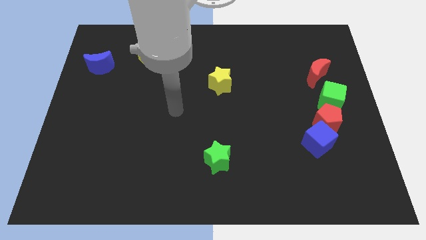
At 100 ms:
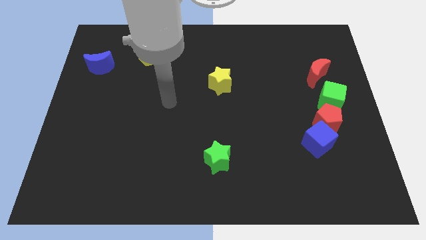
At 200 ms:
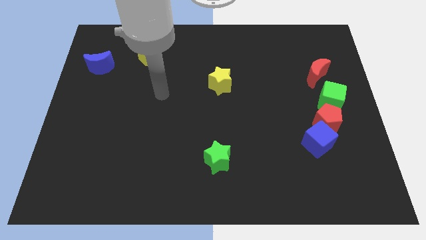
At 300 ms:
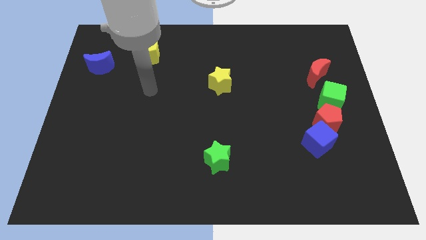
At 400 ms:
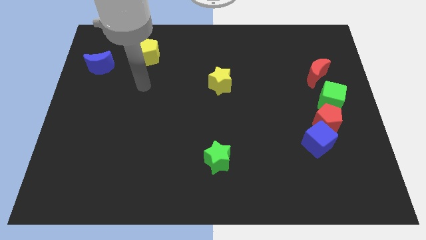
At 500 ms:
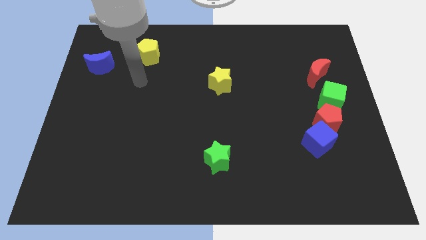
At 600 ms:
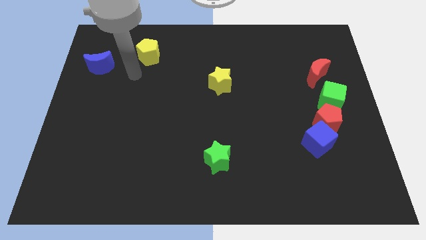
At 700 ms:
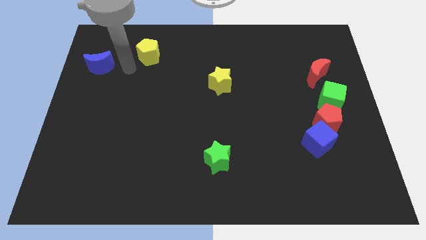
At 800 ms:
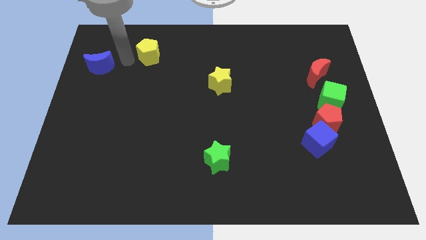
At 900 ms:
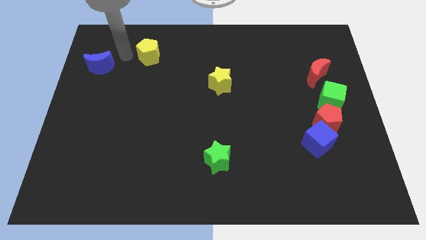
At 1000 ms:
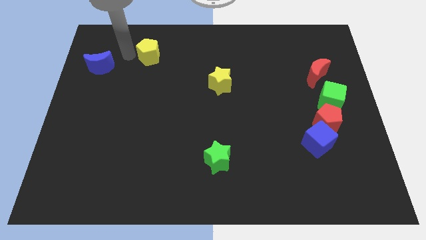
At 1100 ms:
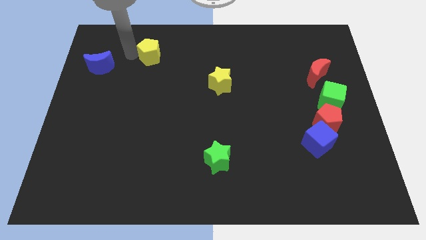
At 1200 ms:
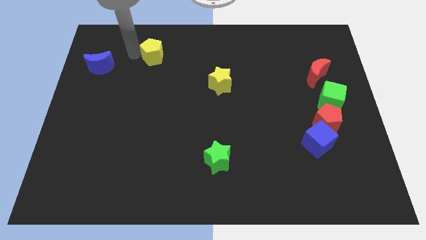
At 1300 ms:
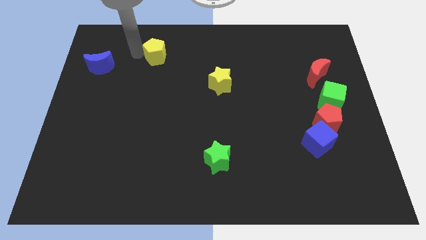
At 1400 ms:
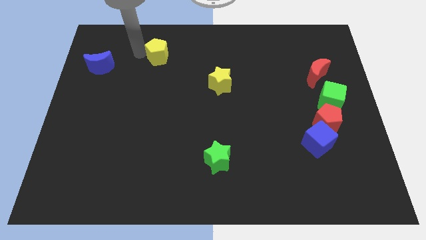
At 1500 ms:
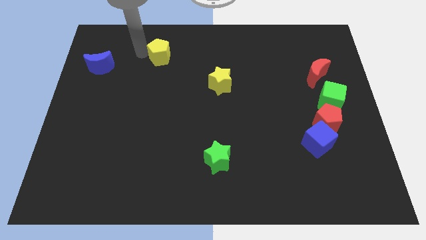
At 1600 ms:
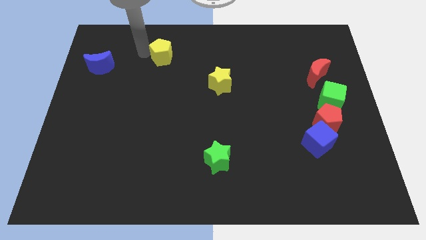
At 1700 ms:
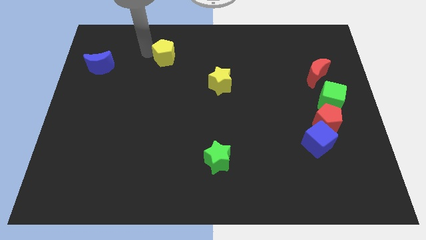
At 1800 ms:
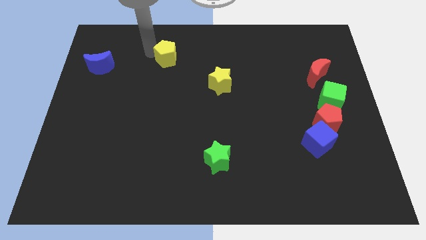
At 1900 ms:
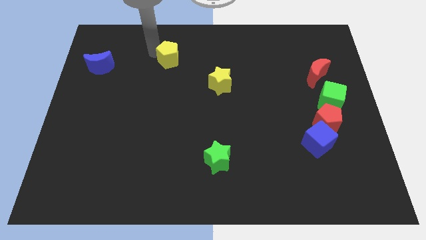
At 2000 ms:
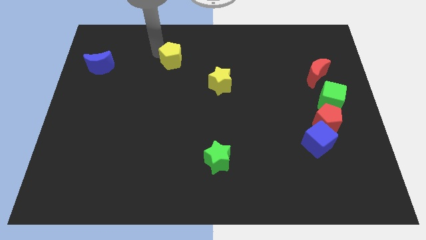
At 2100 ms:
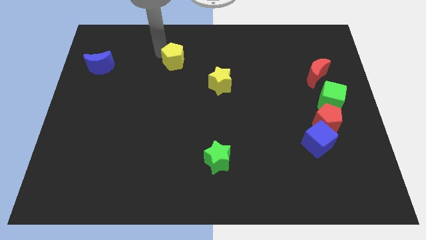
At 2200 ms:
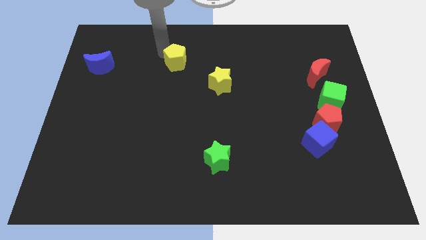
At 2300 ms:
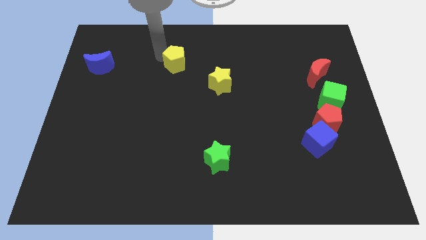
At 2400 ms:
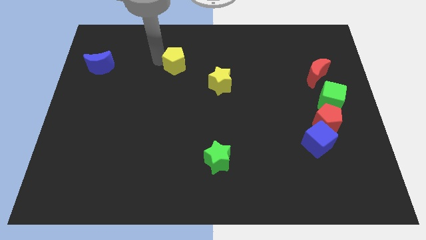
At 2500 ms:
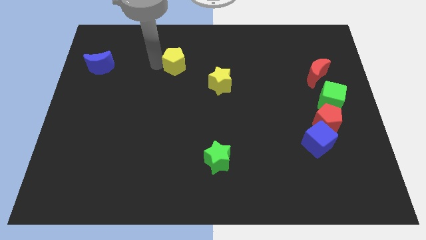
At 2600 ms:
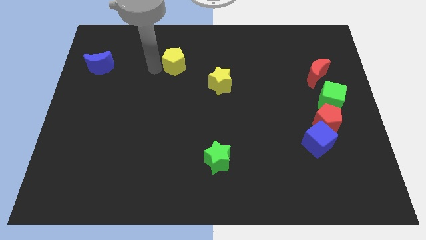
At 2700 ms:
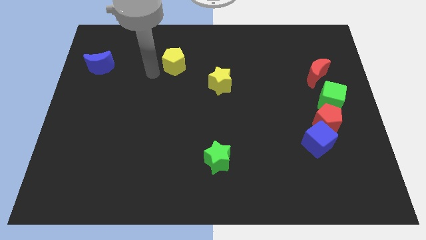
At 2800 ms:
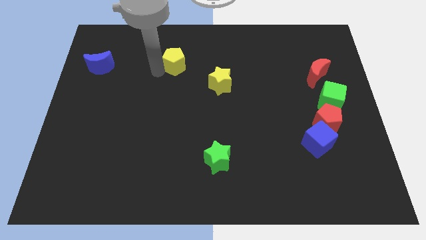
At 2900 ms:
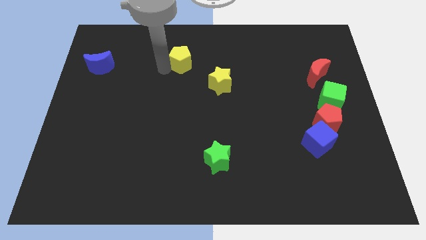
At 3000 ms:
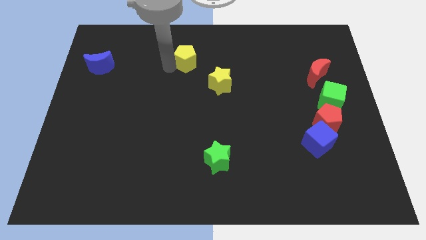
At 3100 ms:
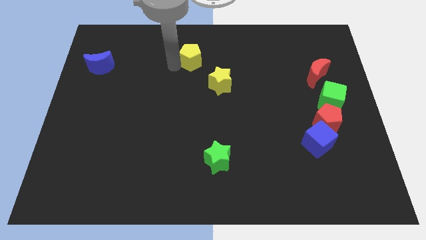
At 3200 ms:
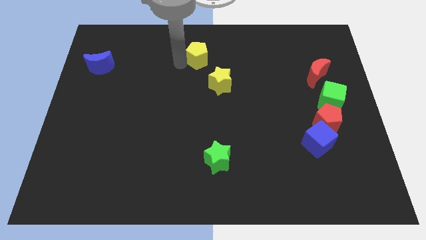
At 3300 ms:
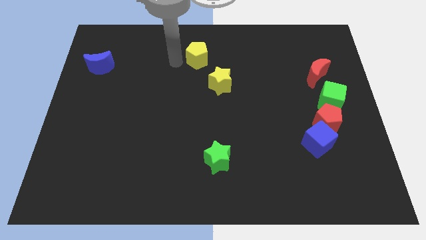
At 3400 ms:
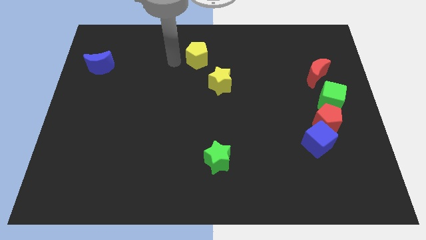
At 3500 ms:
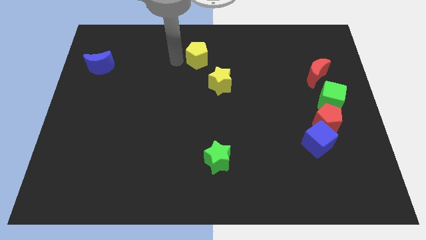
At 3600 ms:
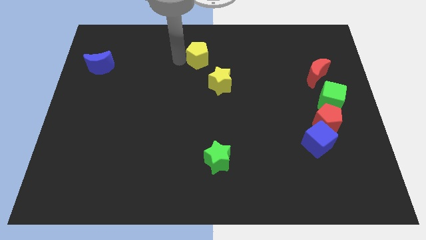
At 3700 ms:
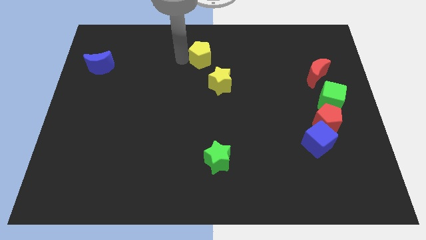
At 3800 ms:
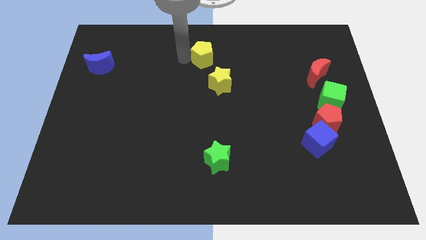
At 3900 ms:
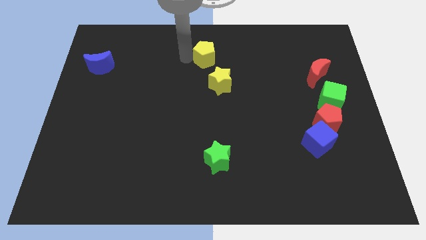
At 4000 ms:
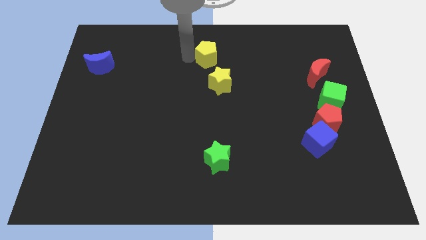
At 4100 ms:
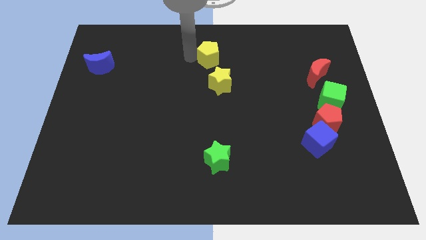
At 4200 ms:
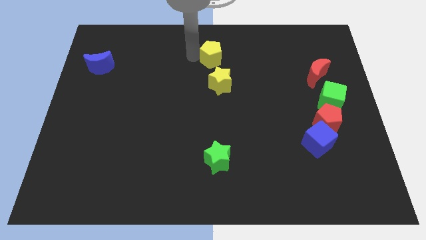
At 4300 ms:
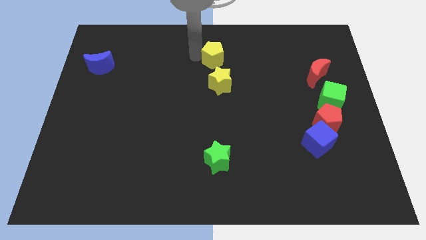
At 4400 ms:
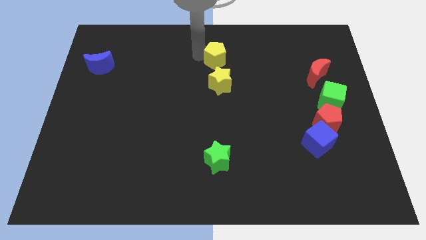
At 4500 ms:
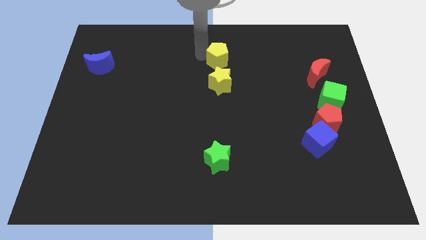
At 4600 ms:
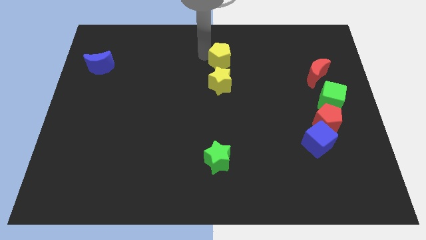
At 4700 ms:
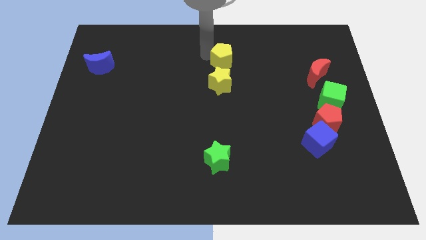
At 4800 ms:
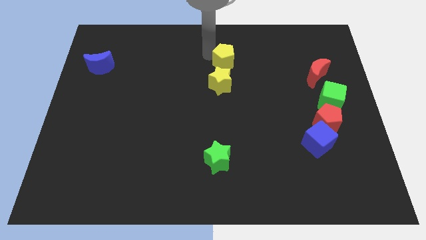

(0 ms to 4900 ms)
move the yellow pentagon to the right

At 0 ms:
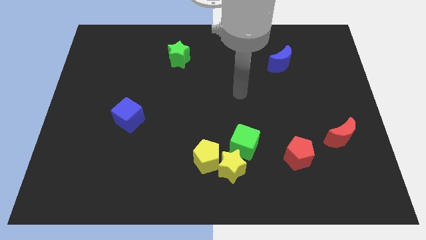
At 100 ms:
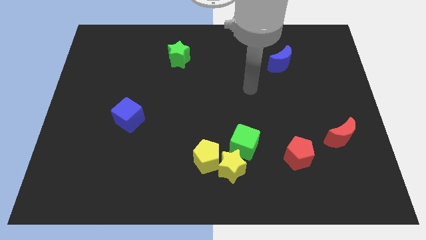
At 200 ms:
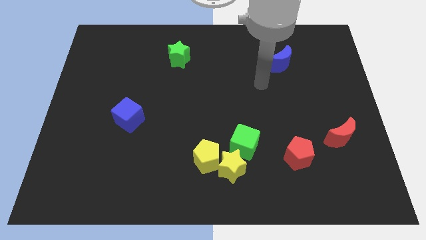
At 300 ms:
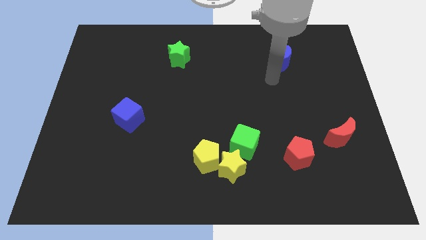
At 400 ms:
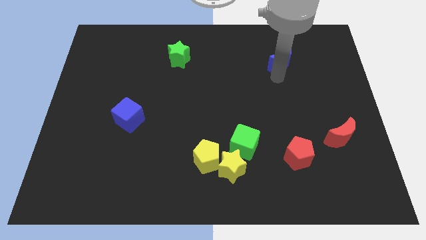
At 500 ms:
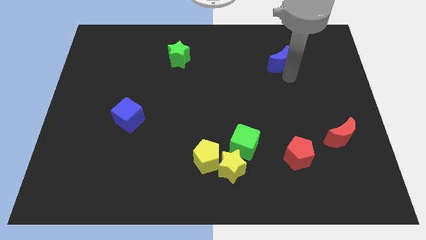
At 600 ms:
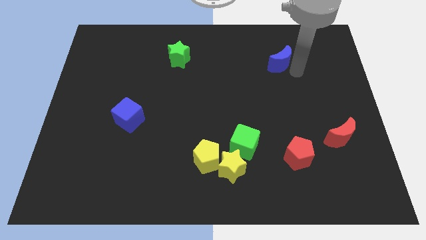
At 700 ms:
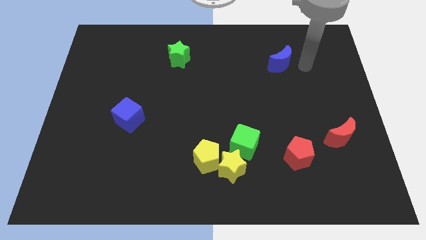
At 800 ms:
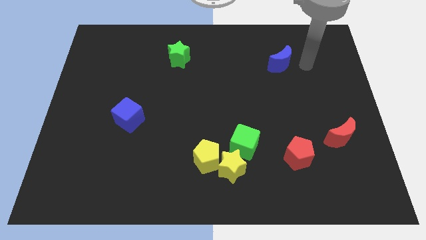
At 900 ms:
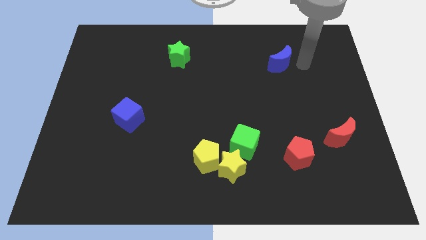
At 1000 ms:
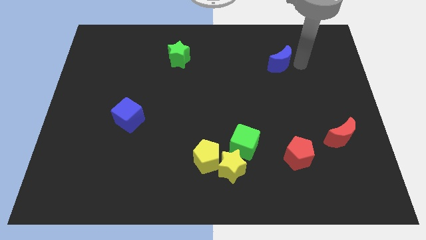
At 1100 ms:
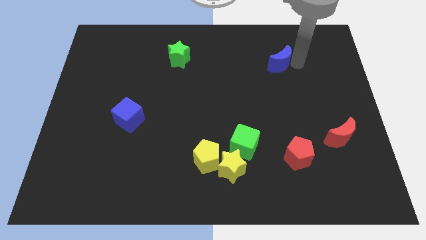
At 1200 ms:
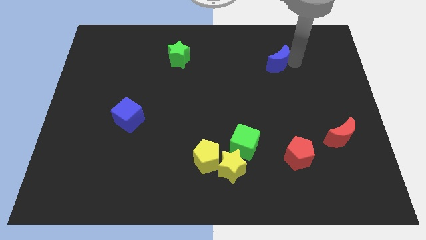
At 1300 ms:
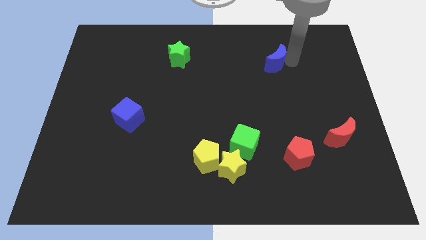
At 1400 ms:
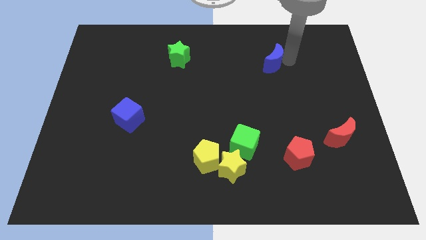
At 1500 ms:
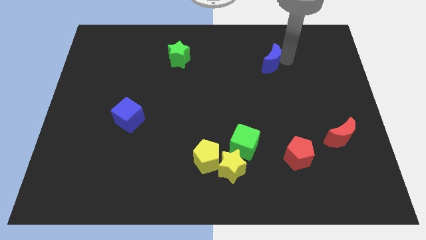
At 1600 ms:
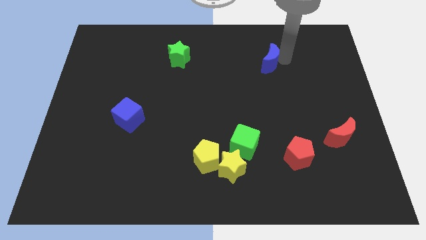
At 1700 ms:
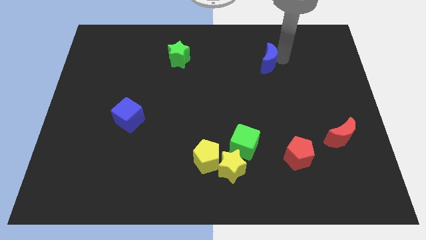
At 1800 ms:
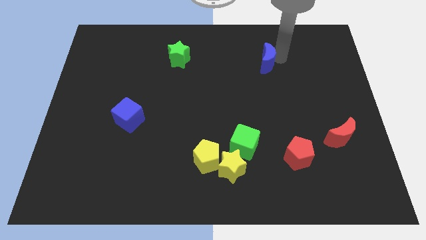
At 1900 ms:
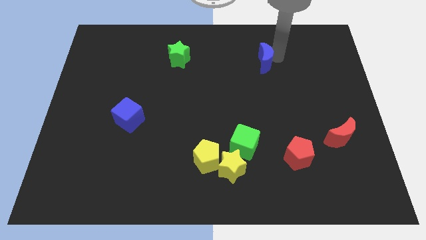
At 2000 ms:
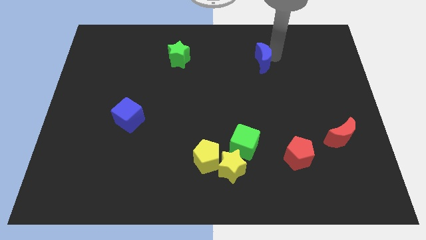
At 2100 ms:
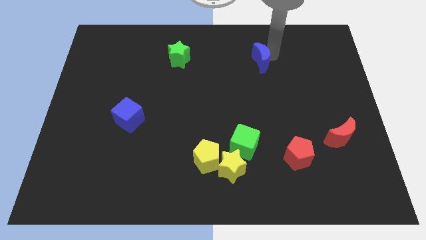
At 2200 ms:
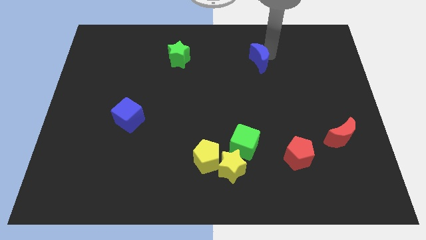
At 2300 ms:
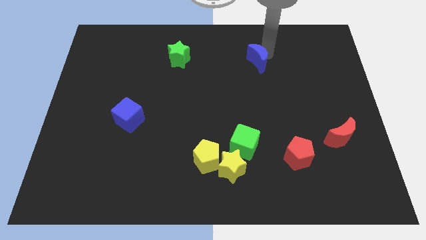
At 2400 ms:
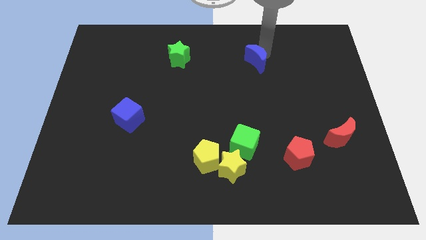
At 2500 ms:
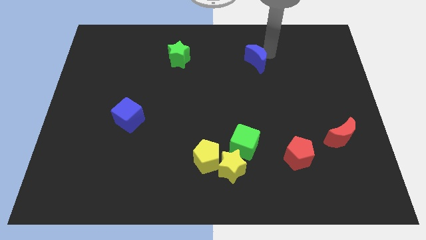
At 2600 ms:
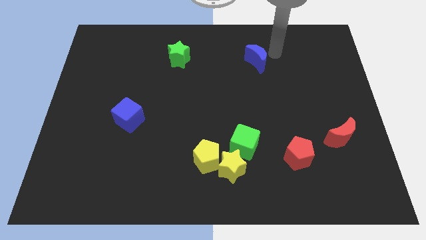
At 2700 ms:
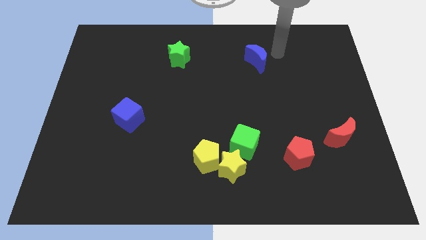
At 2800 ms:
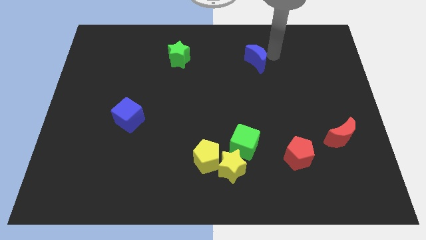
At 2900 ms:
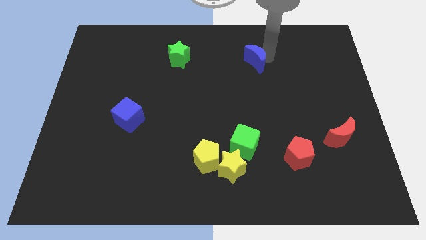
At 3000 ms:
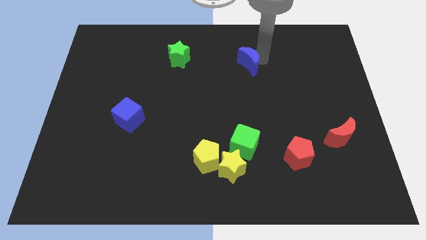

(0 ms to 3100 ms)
slightly move the blue moon left

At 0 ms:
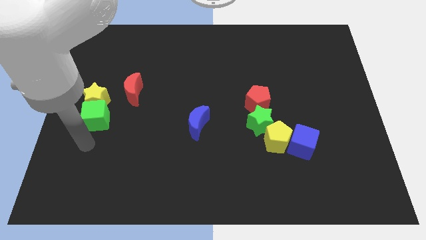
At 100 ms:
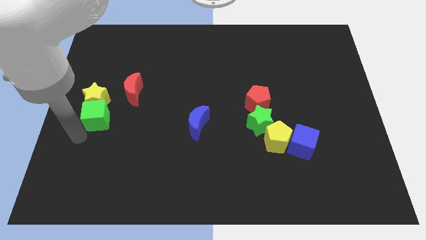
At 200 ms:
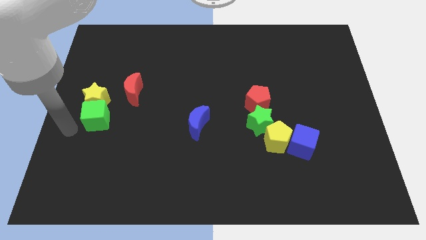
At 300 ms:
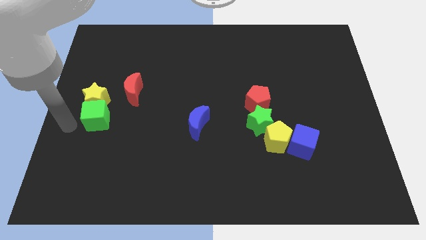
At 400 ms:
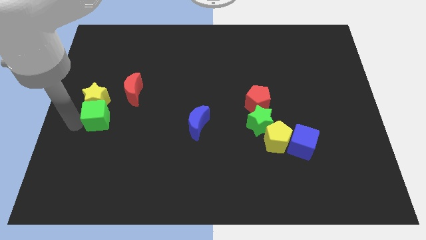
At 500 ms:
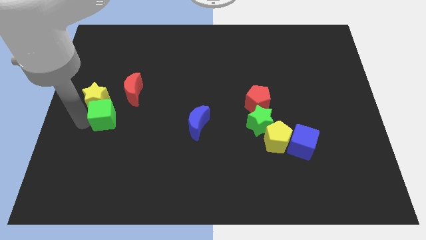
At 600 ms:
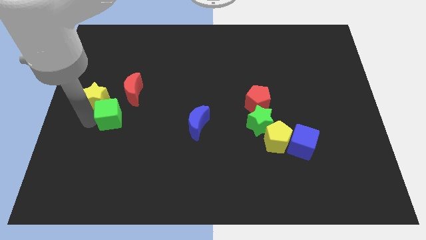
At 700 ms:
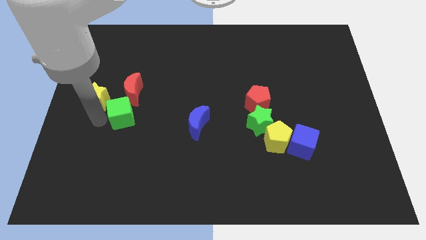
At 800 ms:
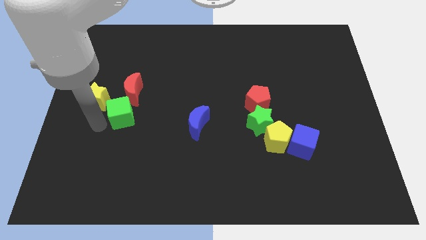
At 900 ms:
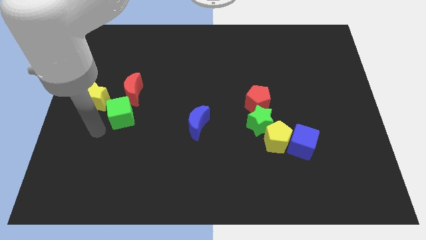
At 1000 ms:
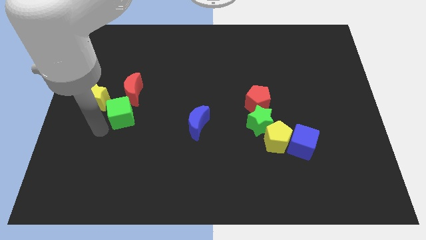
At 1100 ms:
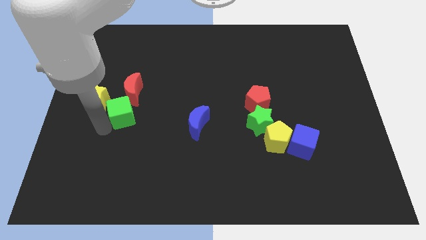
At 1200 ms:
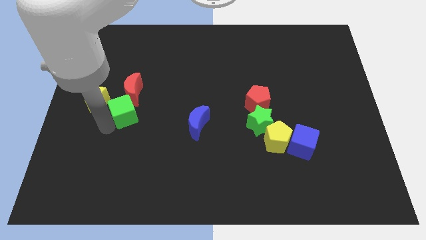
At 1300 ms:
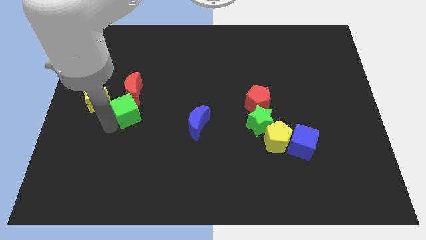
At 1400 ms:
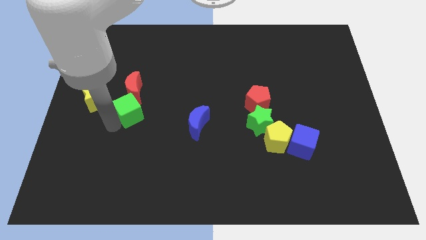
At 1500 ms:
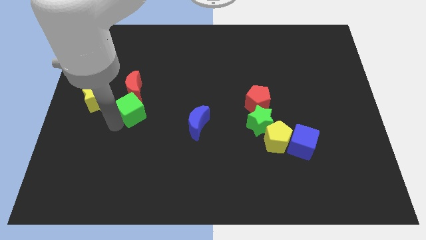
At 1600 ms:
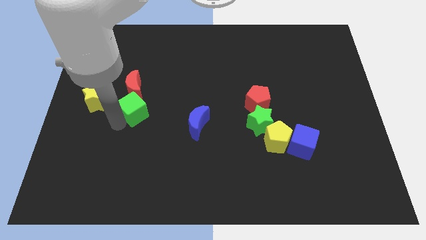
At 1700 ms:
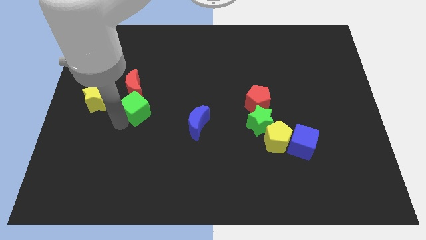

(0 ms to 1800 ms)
slightly push the green cube upwards and then to the right
